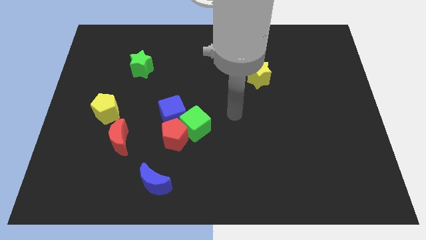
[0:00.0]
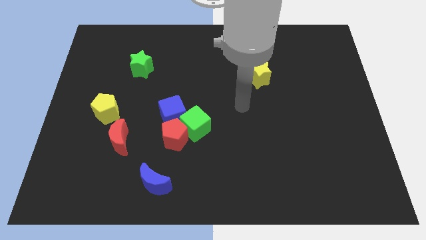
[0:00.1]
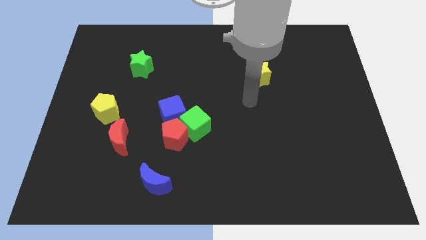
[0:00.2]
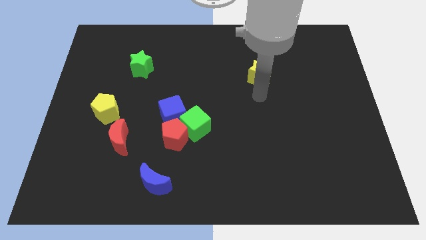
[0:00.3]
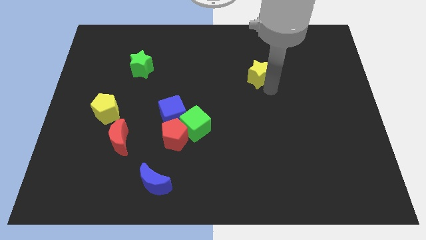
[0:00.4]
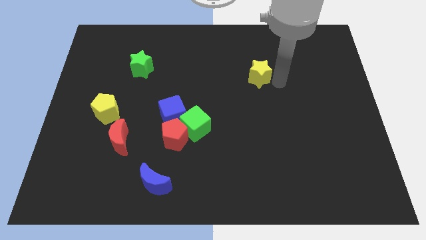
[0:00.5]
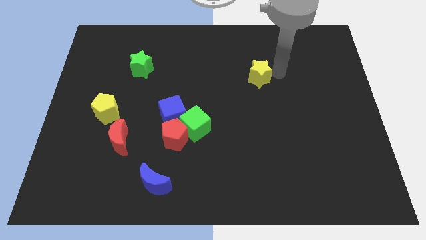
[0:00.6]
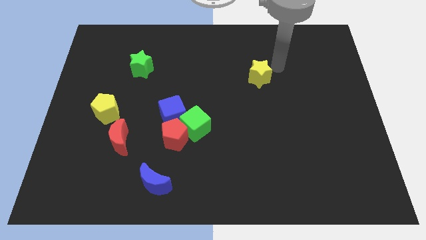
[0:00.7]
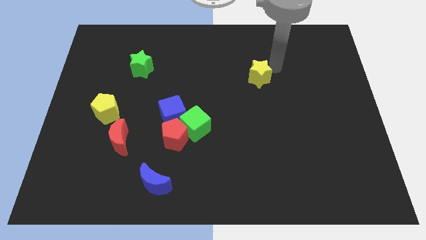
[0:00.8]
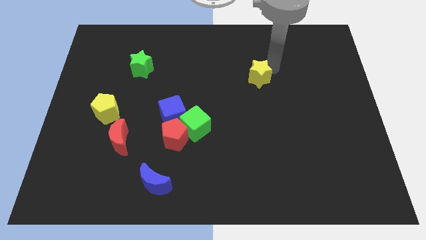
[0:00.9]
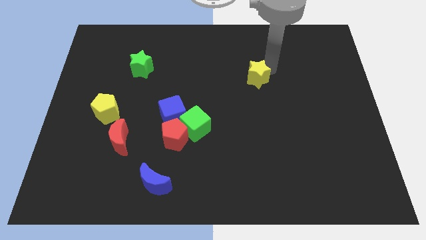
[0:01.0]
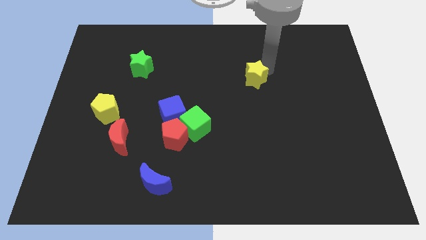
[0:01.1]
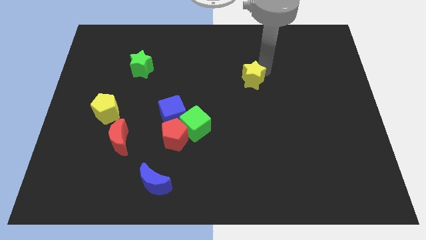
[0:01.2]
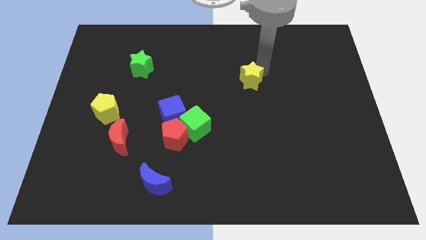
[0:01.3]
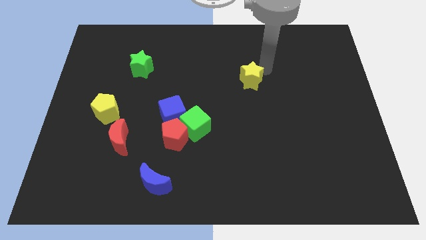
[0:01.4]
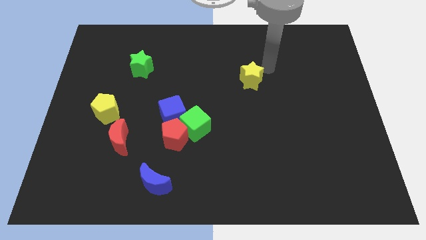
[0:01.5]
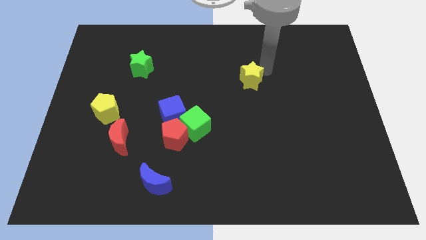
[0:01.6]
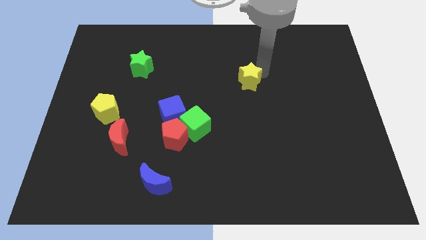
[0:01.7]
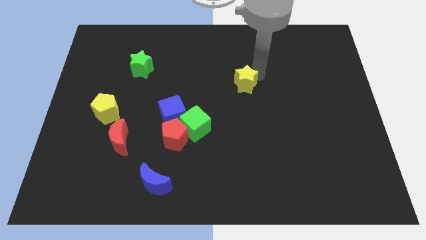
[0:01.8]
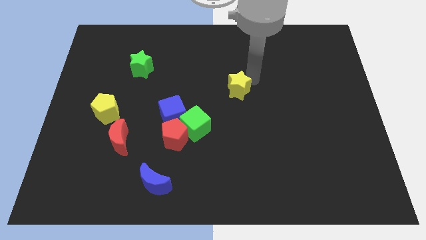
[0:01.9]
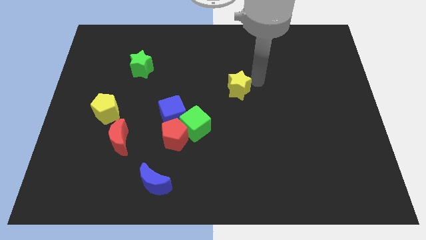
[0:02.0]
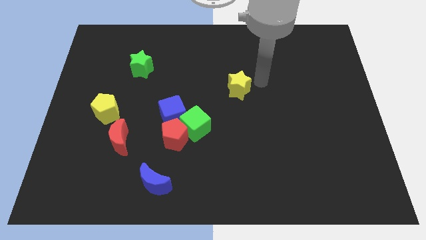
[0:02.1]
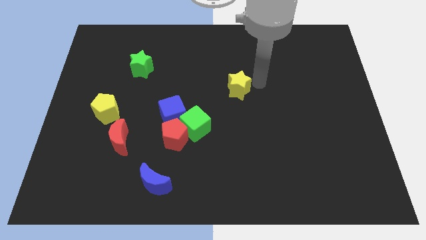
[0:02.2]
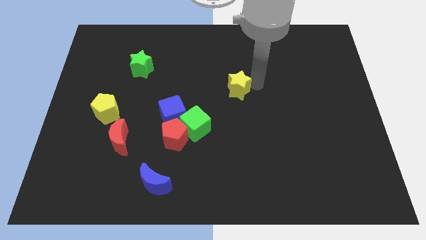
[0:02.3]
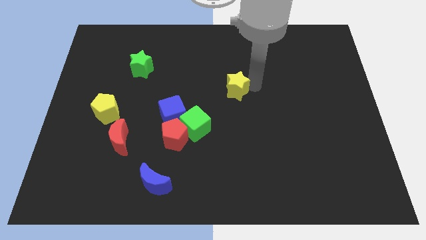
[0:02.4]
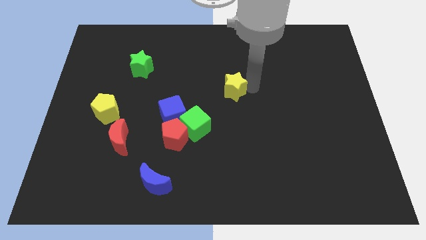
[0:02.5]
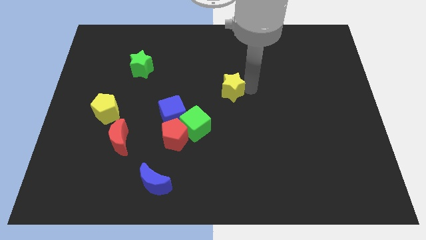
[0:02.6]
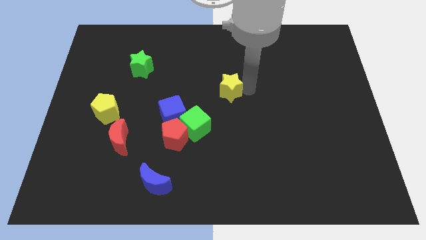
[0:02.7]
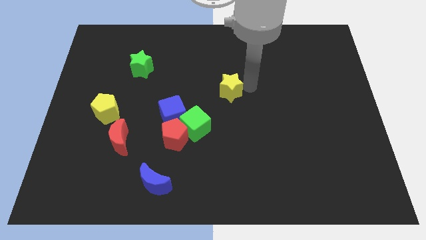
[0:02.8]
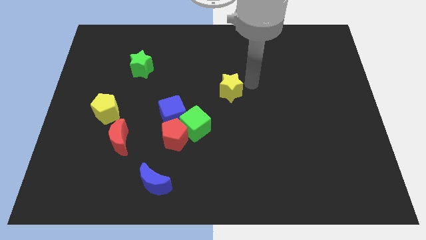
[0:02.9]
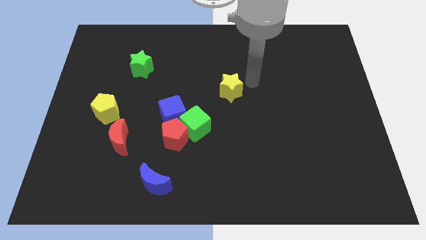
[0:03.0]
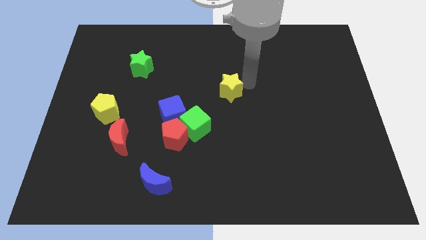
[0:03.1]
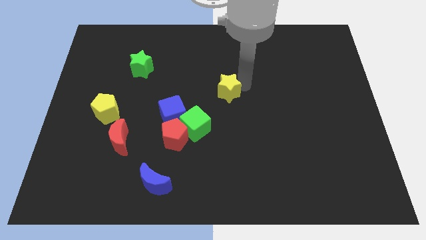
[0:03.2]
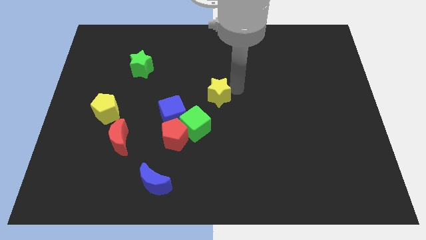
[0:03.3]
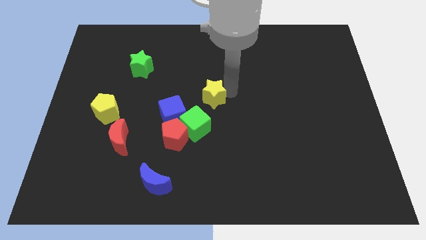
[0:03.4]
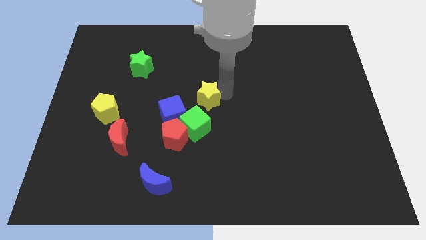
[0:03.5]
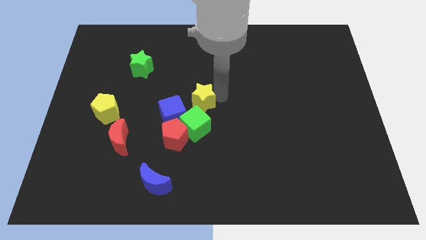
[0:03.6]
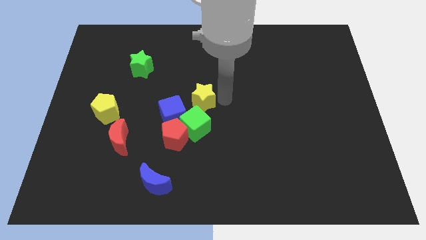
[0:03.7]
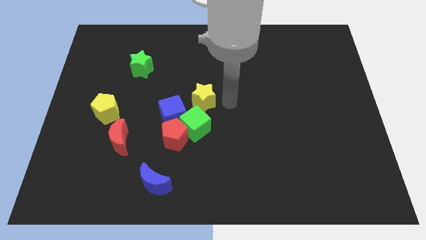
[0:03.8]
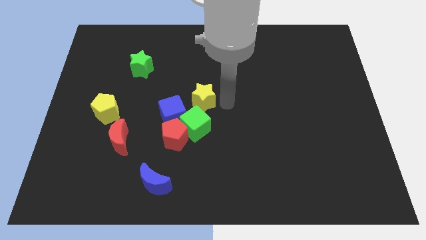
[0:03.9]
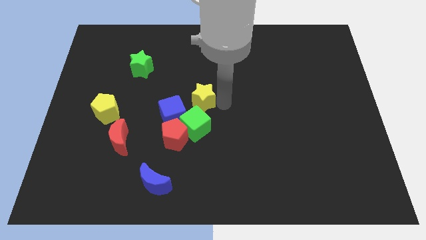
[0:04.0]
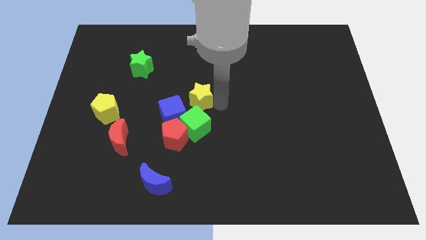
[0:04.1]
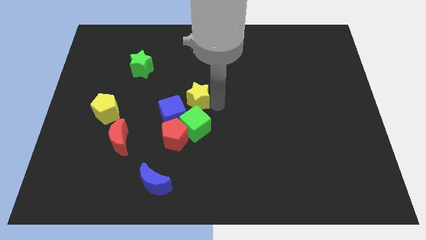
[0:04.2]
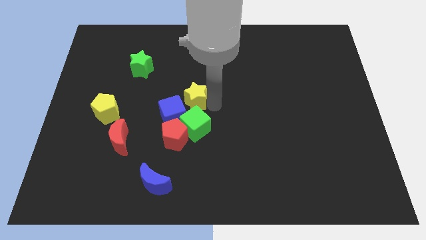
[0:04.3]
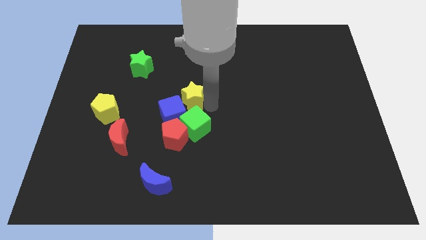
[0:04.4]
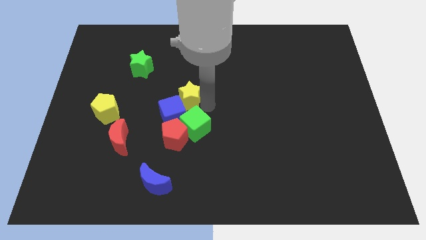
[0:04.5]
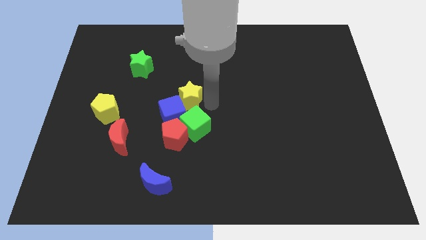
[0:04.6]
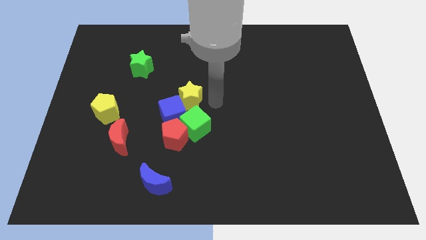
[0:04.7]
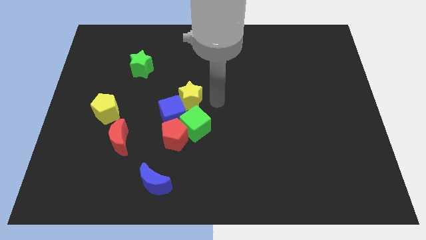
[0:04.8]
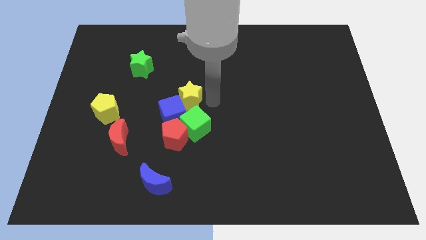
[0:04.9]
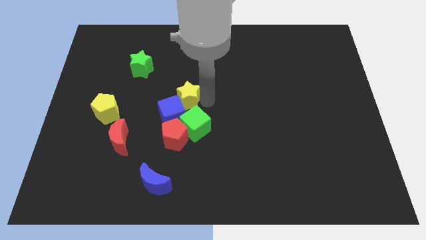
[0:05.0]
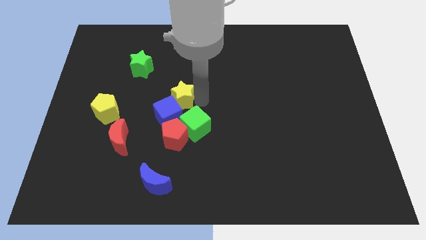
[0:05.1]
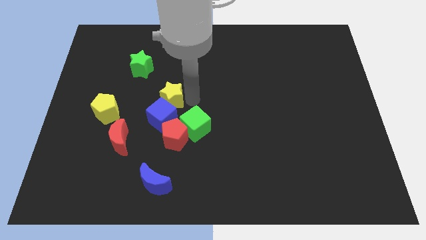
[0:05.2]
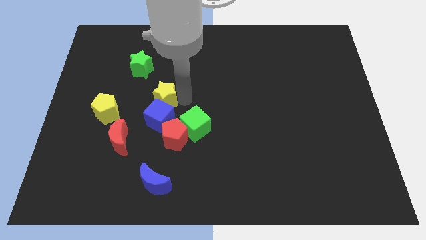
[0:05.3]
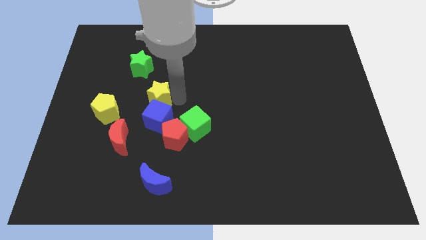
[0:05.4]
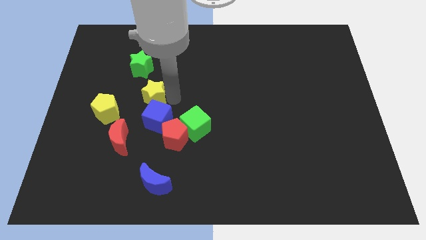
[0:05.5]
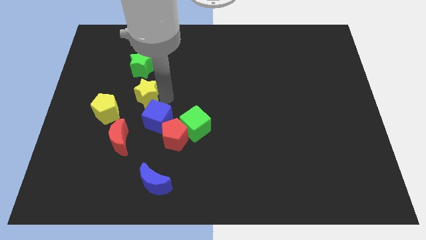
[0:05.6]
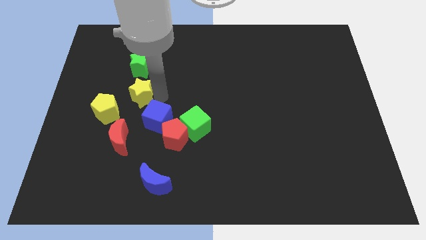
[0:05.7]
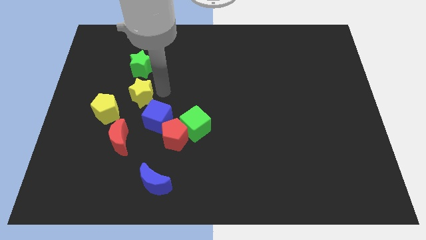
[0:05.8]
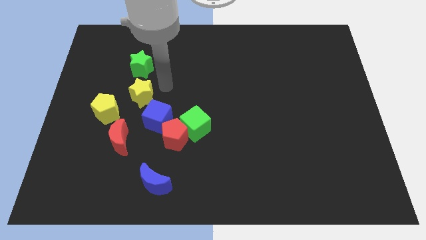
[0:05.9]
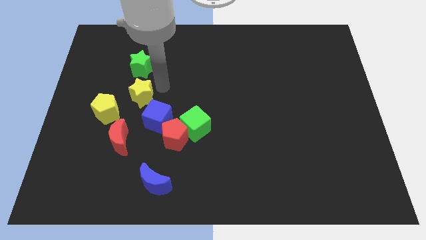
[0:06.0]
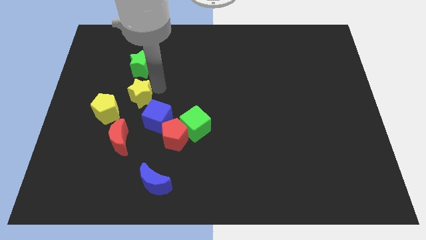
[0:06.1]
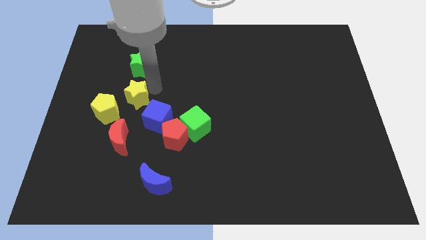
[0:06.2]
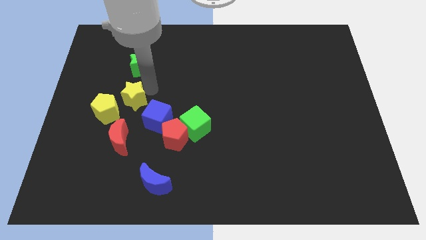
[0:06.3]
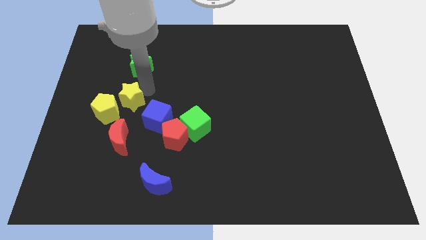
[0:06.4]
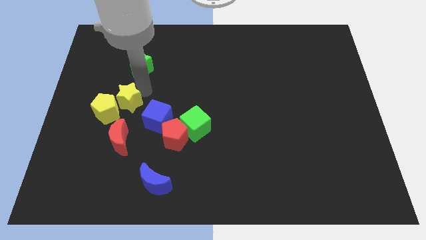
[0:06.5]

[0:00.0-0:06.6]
move the yellow star close to the yellow pentagon
